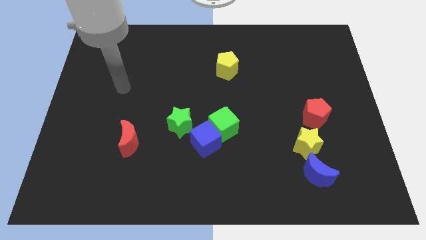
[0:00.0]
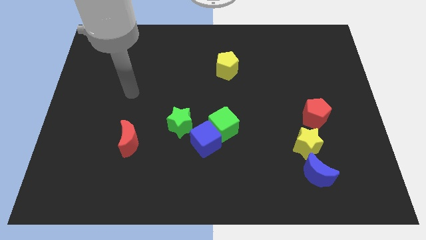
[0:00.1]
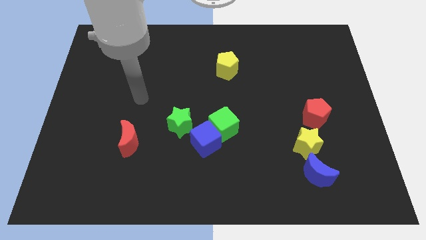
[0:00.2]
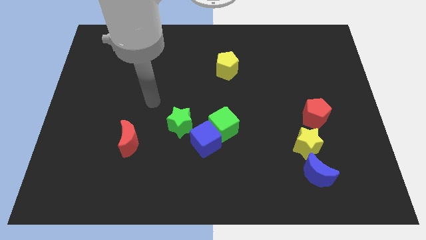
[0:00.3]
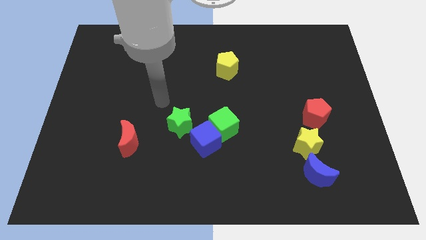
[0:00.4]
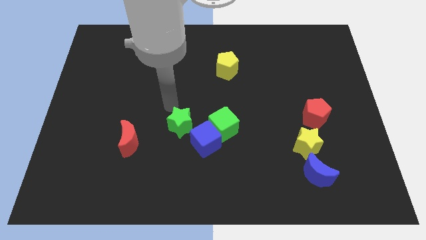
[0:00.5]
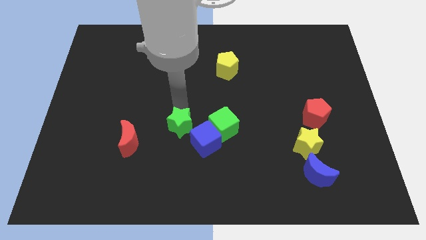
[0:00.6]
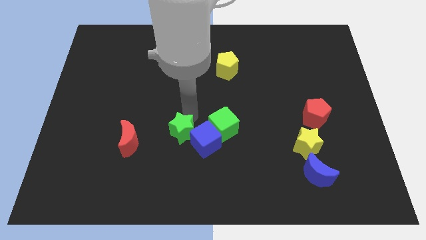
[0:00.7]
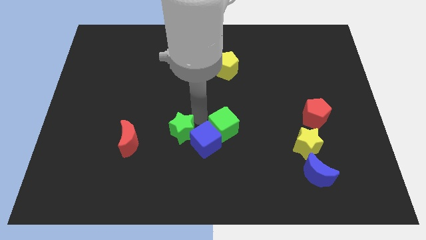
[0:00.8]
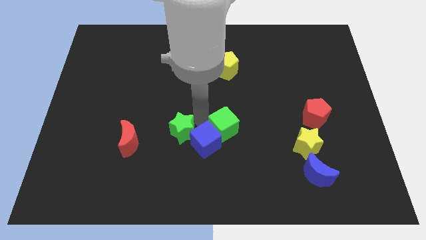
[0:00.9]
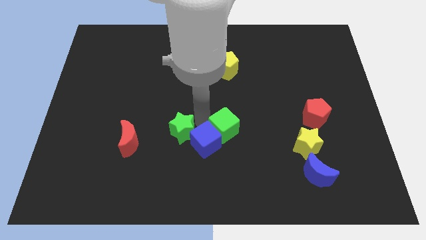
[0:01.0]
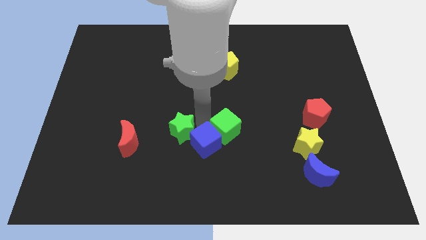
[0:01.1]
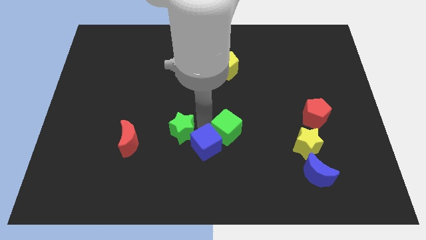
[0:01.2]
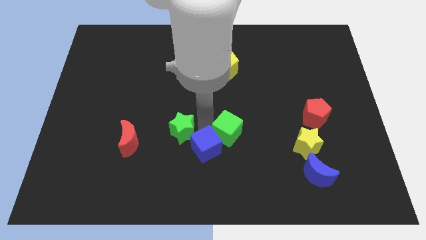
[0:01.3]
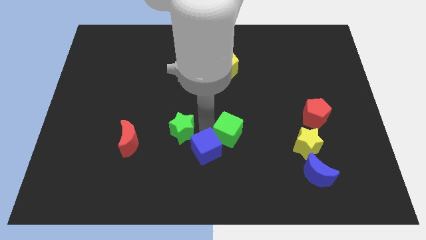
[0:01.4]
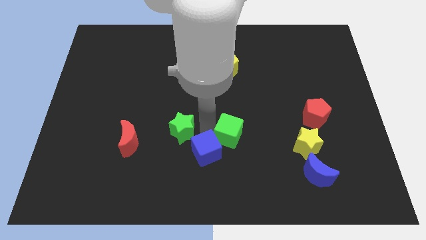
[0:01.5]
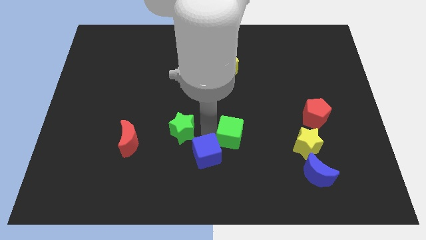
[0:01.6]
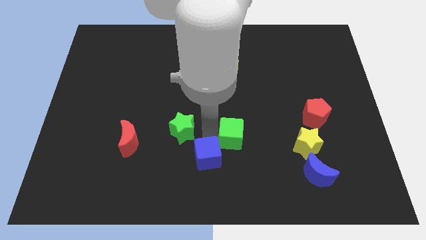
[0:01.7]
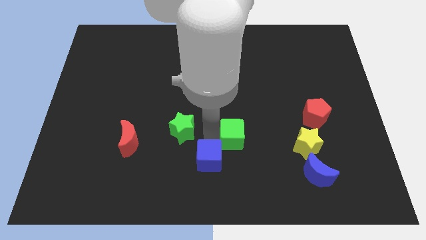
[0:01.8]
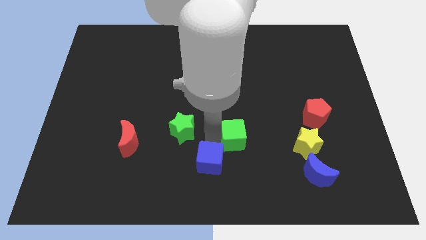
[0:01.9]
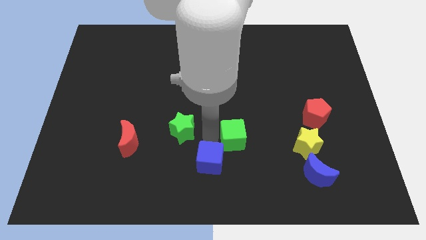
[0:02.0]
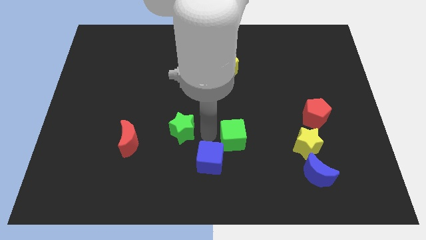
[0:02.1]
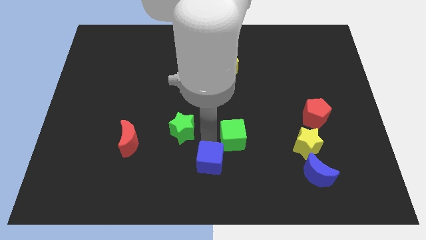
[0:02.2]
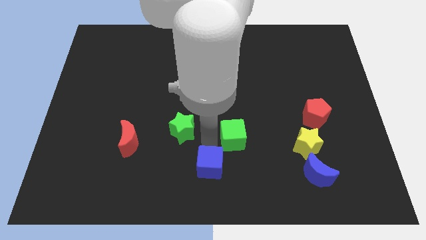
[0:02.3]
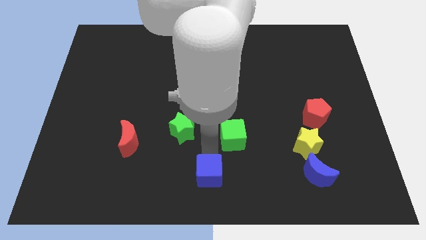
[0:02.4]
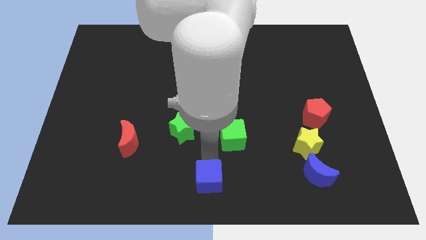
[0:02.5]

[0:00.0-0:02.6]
separate the blue cube from the green cube and green star

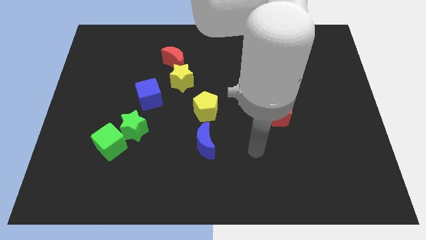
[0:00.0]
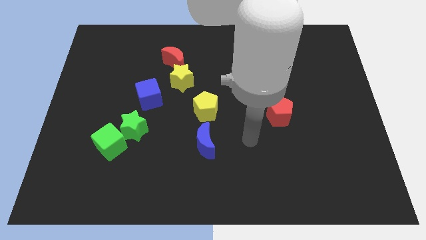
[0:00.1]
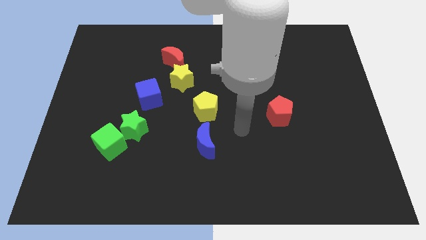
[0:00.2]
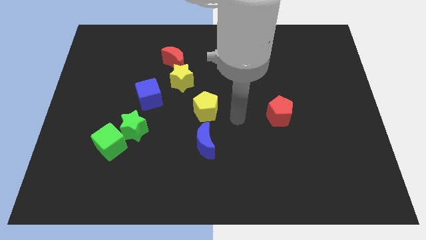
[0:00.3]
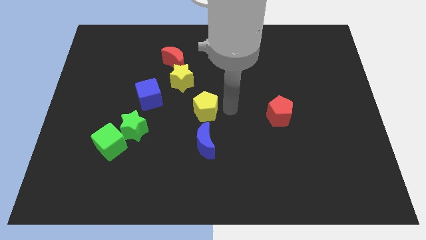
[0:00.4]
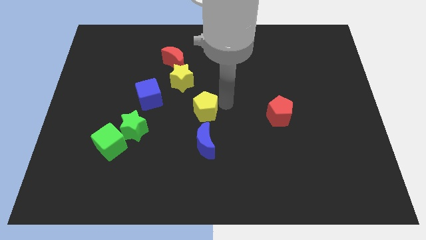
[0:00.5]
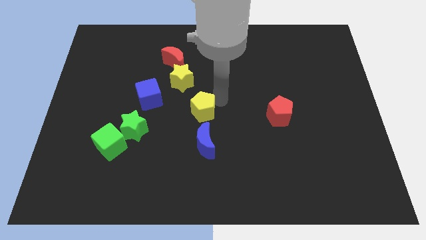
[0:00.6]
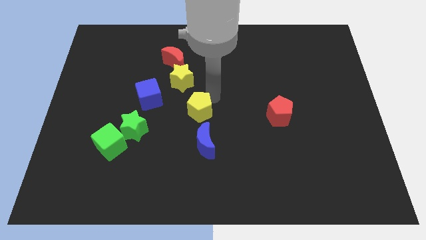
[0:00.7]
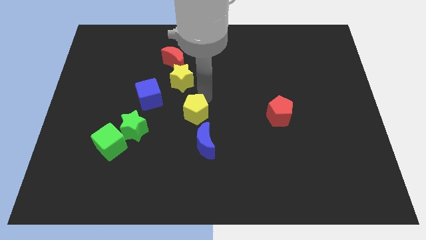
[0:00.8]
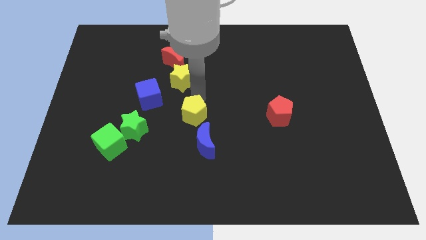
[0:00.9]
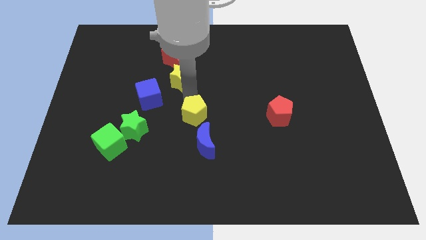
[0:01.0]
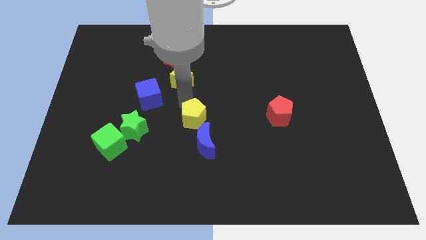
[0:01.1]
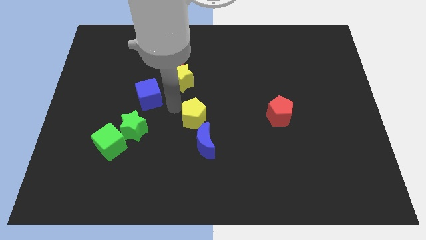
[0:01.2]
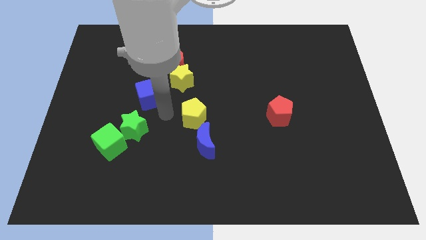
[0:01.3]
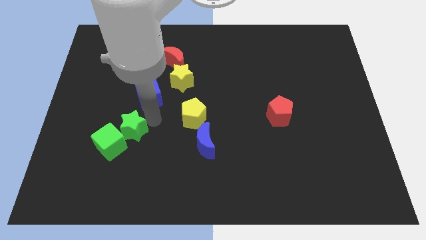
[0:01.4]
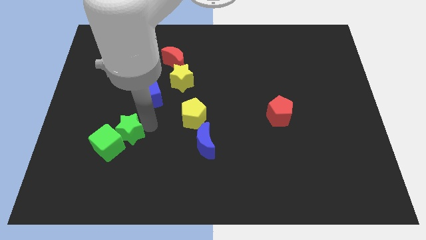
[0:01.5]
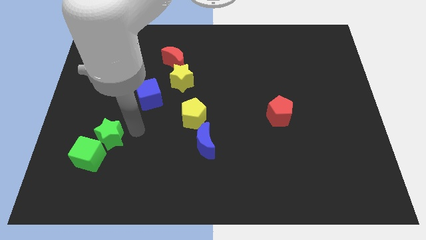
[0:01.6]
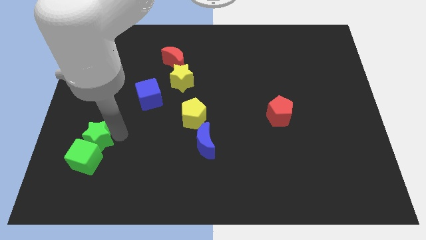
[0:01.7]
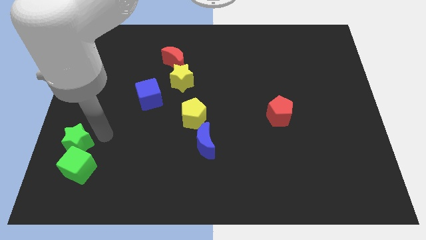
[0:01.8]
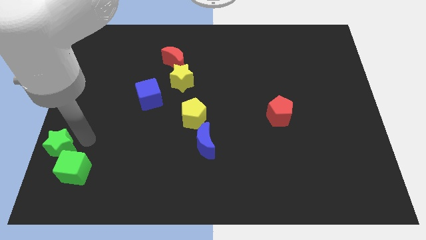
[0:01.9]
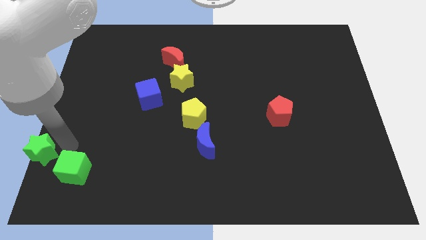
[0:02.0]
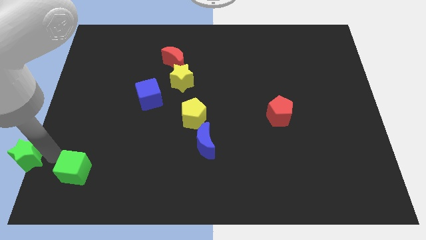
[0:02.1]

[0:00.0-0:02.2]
move the green cube away from the green star

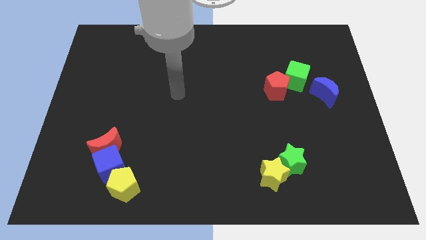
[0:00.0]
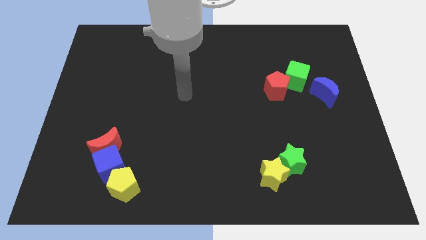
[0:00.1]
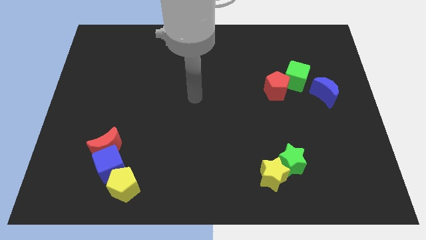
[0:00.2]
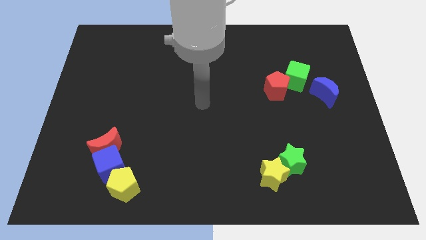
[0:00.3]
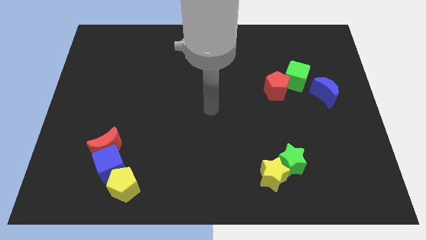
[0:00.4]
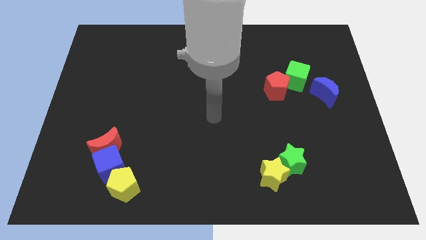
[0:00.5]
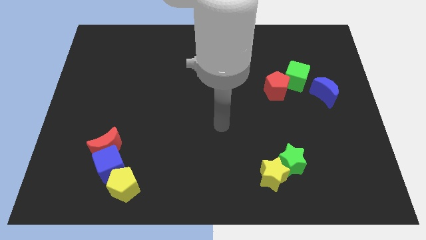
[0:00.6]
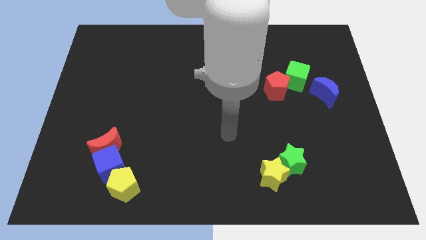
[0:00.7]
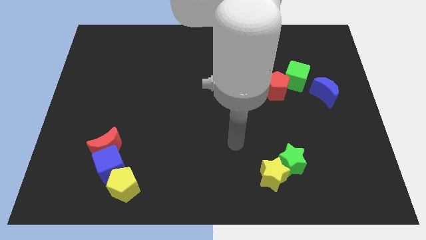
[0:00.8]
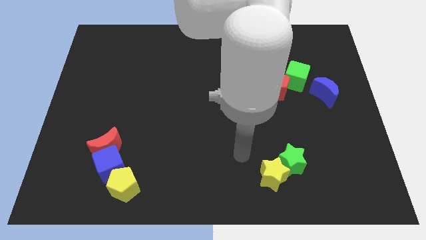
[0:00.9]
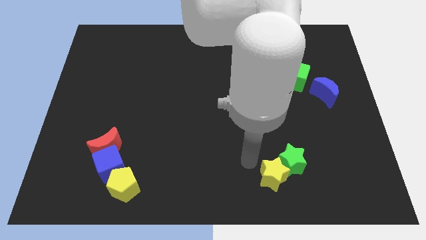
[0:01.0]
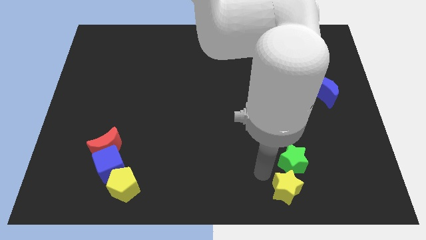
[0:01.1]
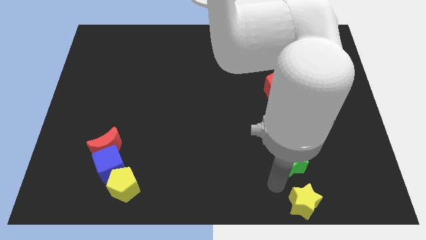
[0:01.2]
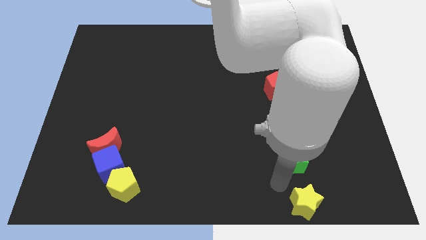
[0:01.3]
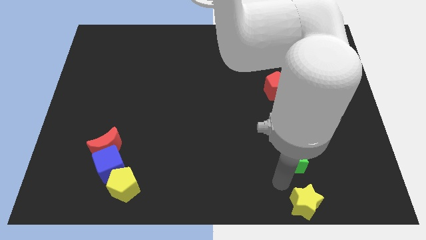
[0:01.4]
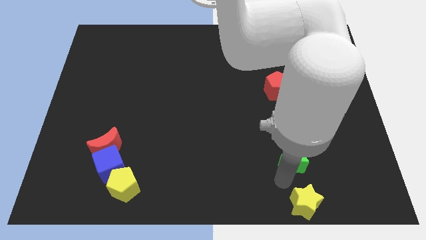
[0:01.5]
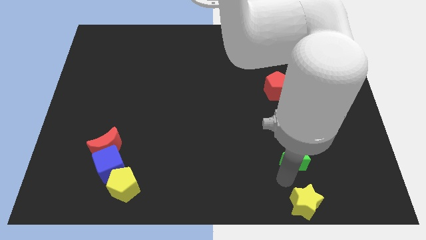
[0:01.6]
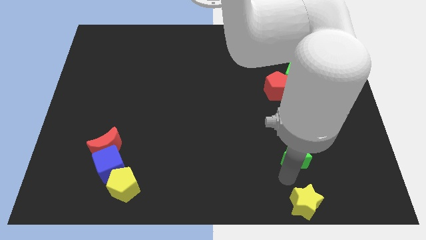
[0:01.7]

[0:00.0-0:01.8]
move the green star away from the yellow star

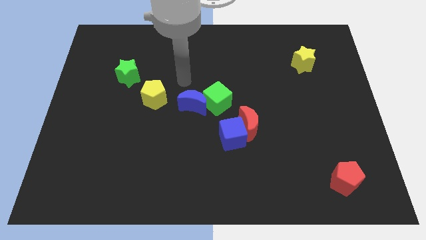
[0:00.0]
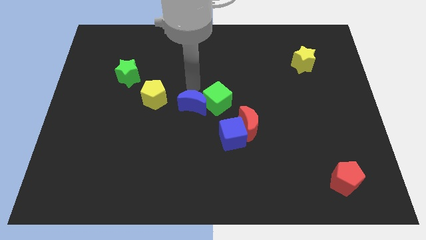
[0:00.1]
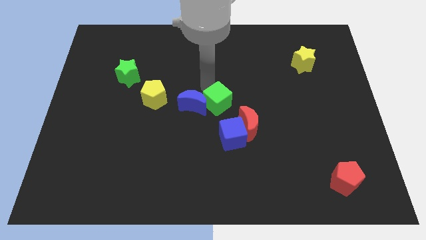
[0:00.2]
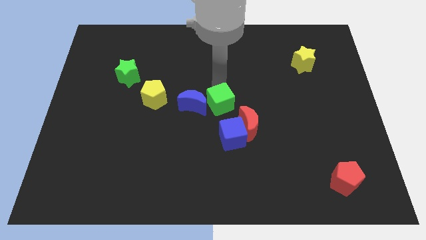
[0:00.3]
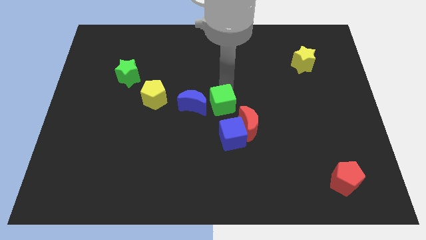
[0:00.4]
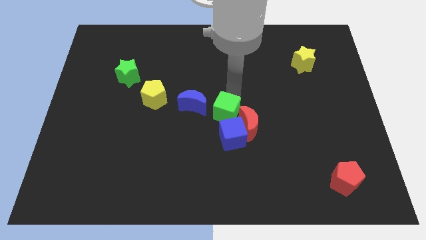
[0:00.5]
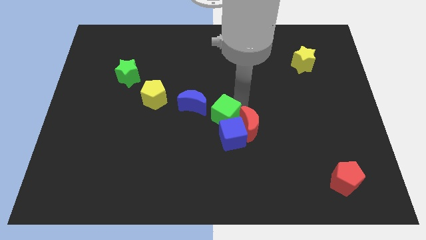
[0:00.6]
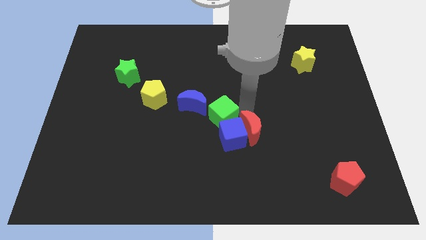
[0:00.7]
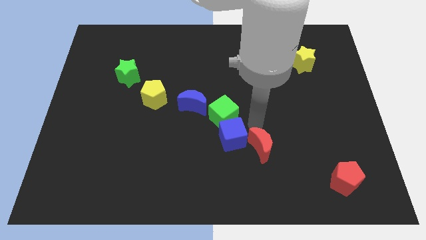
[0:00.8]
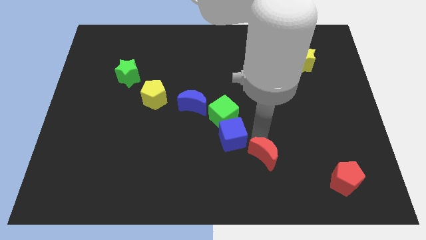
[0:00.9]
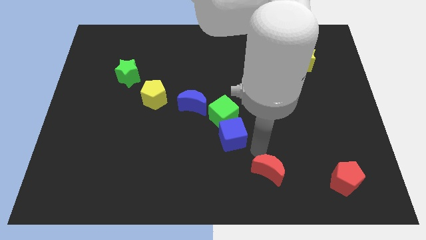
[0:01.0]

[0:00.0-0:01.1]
move the blue cube away from the red moon

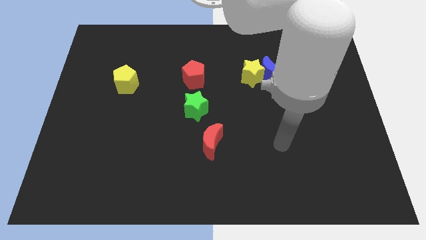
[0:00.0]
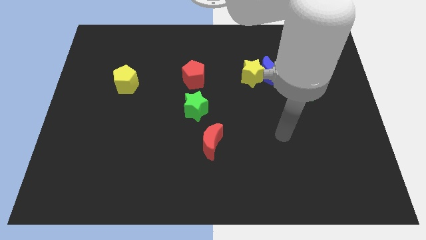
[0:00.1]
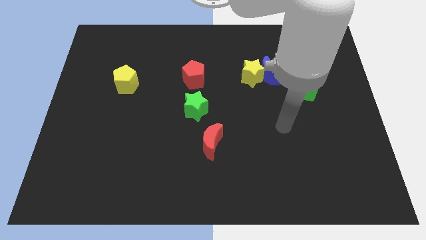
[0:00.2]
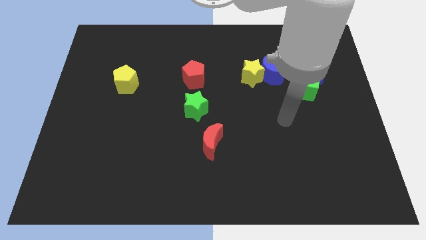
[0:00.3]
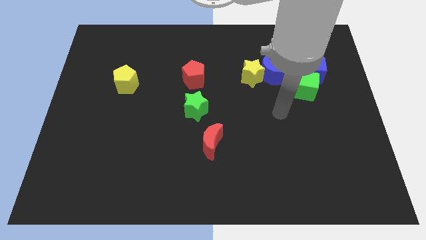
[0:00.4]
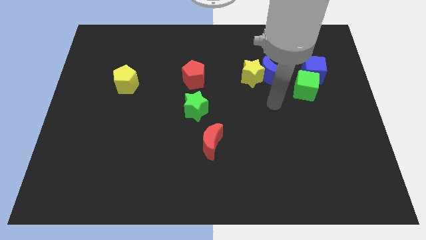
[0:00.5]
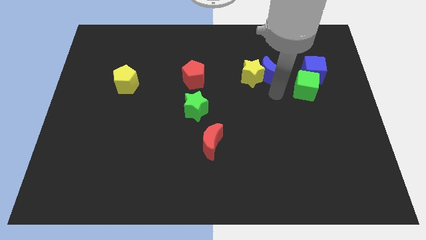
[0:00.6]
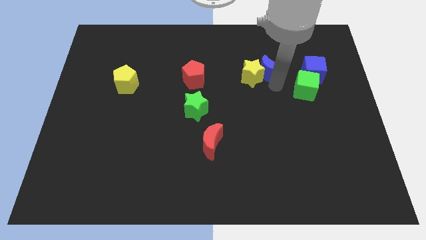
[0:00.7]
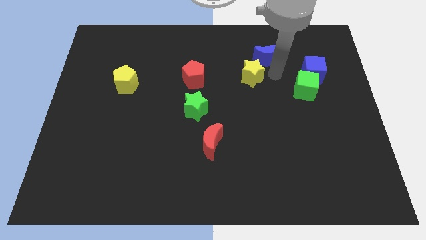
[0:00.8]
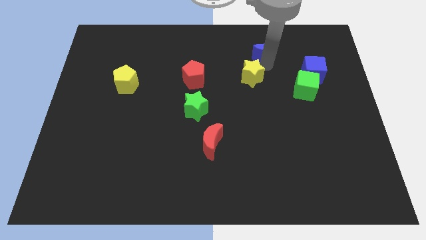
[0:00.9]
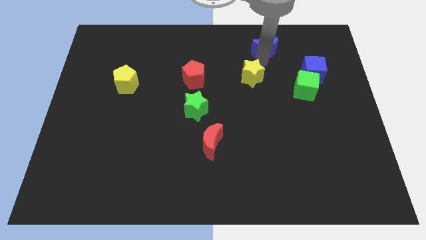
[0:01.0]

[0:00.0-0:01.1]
separate the yellow star from the blue moon

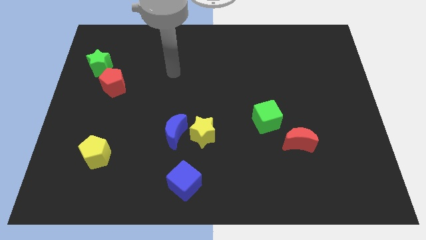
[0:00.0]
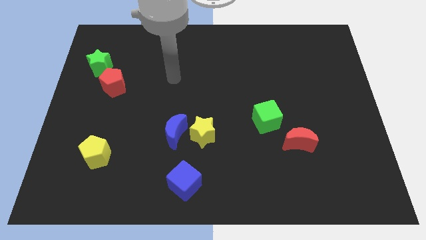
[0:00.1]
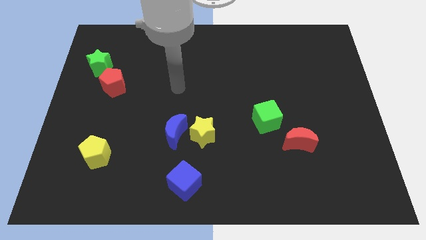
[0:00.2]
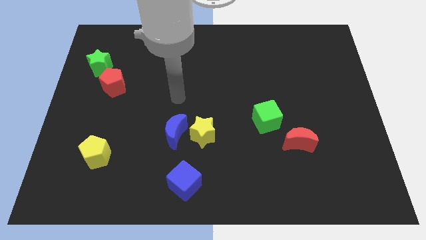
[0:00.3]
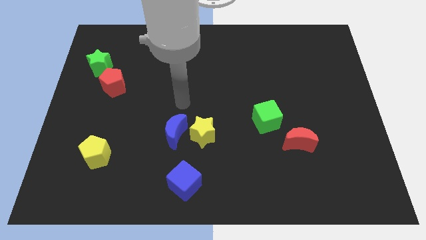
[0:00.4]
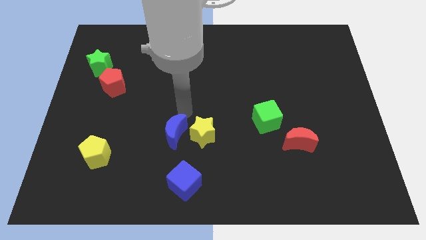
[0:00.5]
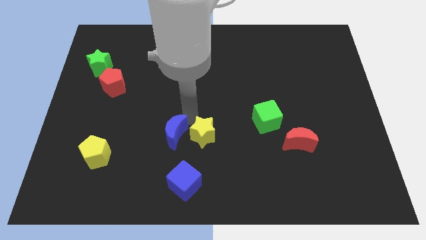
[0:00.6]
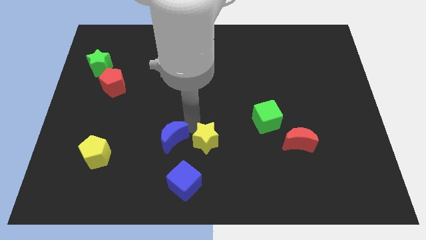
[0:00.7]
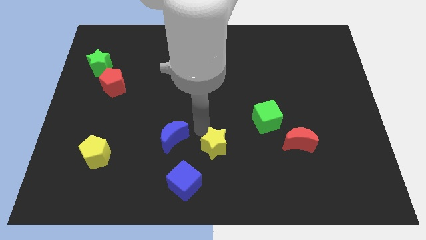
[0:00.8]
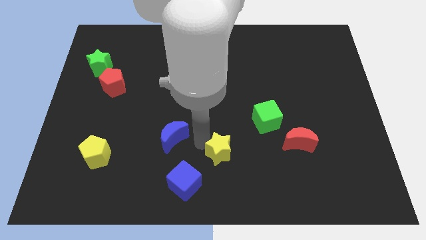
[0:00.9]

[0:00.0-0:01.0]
pull the blue moon apart from the yellow star
